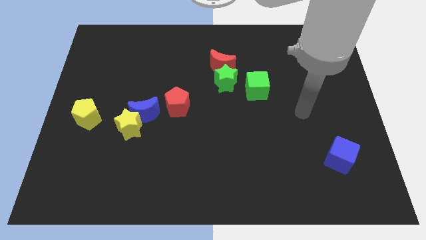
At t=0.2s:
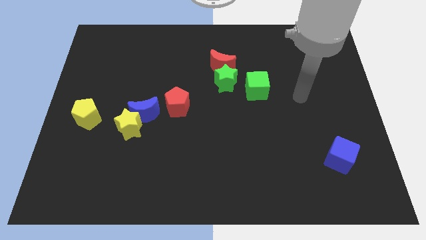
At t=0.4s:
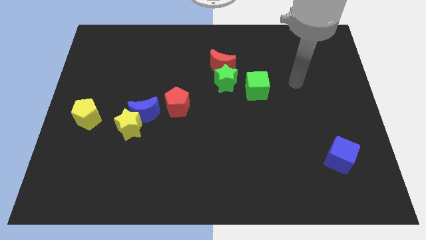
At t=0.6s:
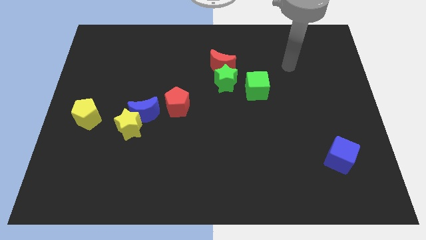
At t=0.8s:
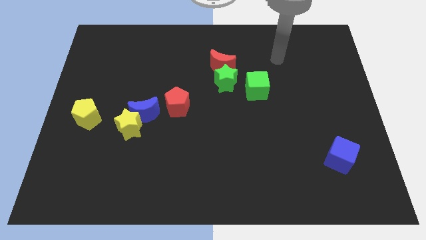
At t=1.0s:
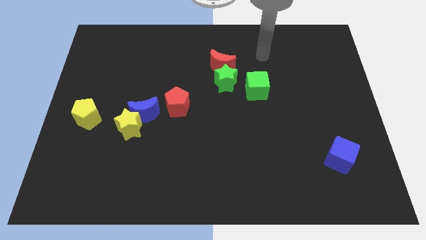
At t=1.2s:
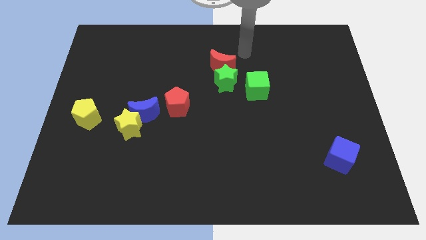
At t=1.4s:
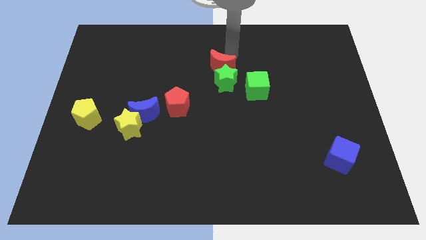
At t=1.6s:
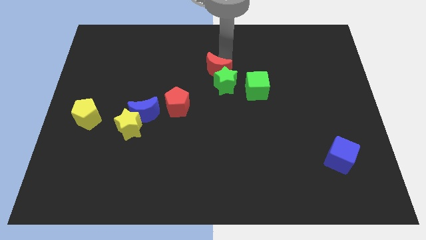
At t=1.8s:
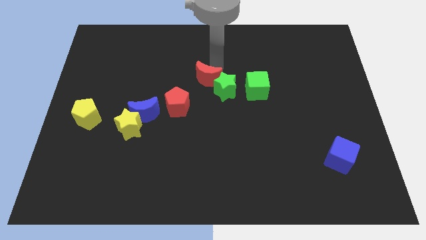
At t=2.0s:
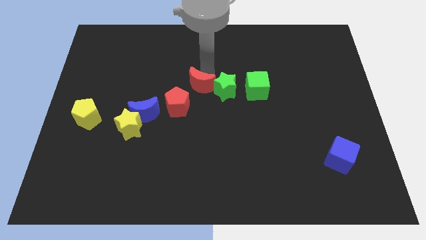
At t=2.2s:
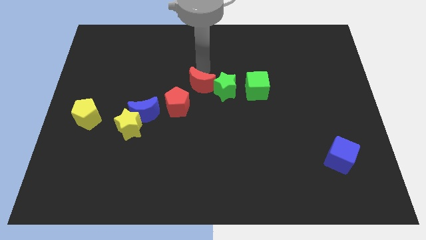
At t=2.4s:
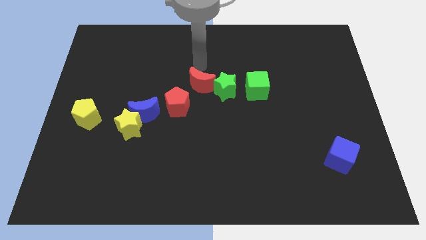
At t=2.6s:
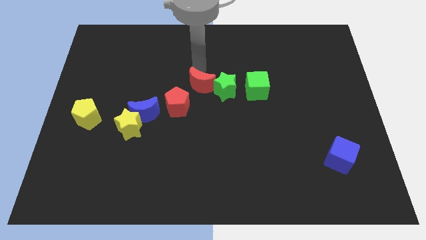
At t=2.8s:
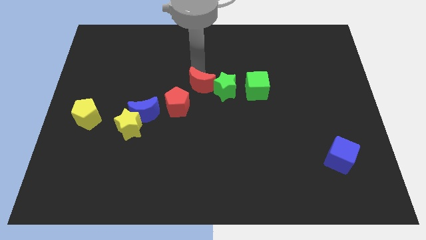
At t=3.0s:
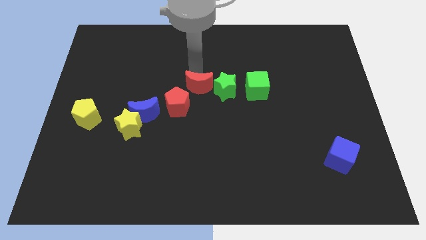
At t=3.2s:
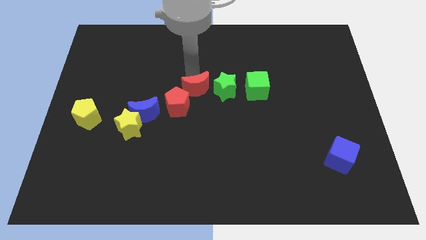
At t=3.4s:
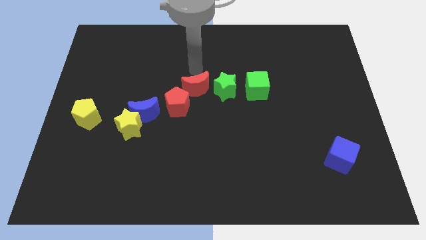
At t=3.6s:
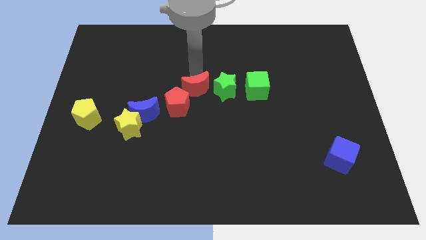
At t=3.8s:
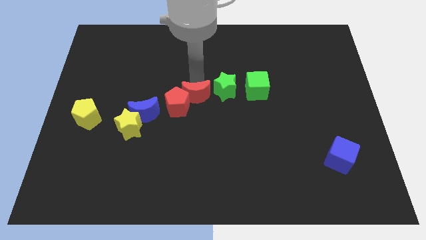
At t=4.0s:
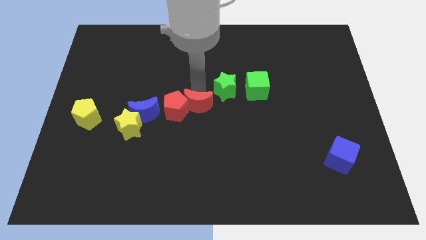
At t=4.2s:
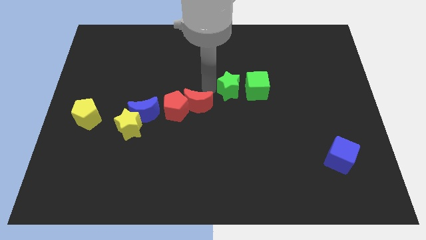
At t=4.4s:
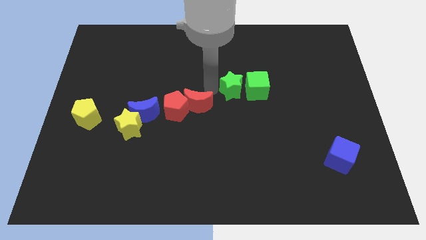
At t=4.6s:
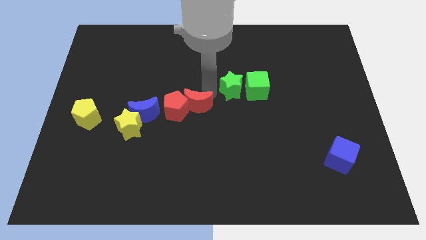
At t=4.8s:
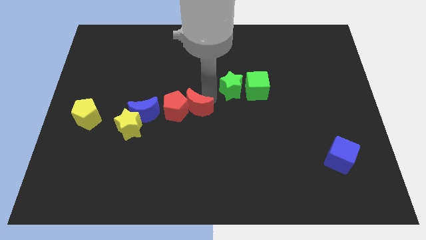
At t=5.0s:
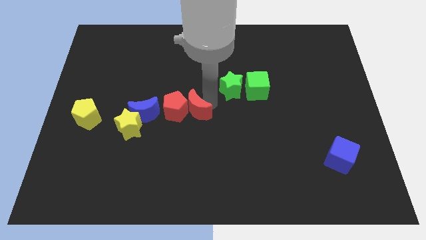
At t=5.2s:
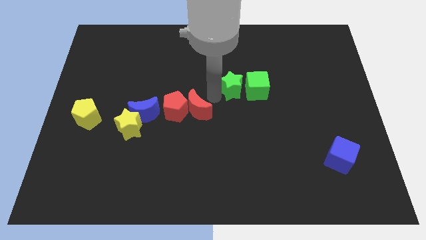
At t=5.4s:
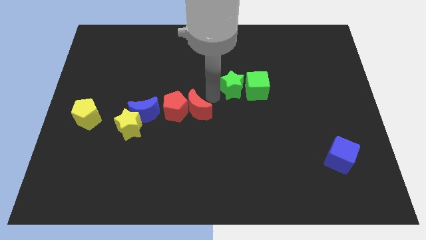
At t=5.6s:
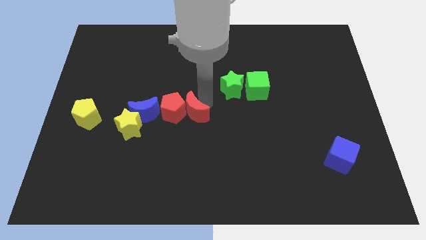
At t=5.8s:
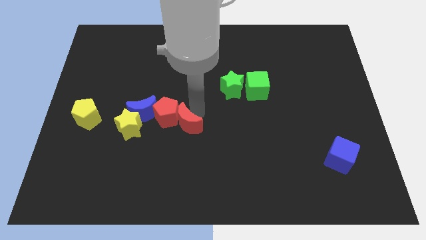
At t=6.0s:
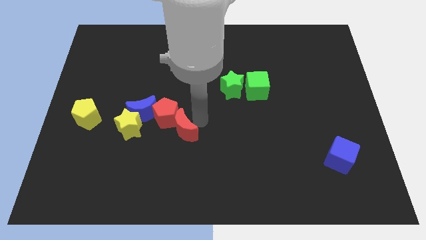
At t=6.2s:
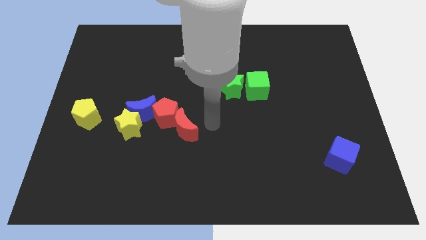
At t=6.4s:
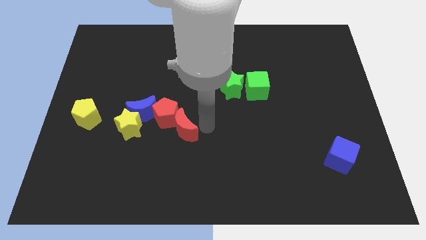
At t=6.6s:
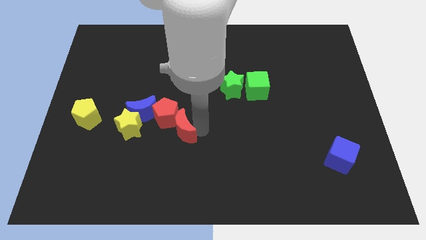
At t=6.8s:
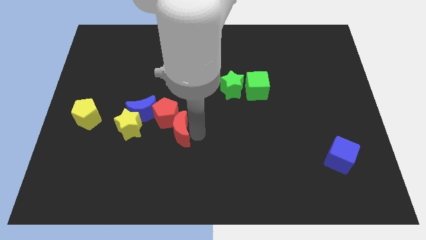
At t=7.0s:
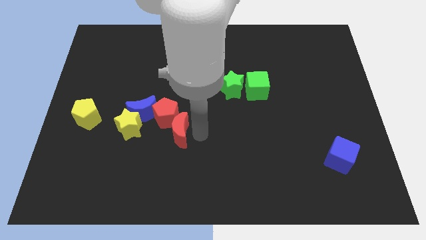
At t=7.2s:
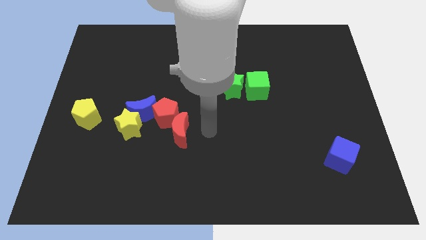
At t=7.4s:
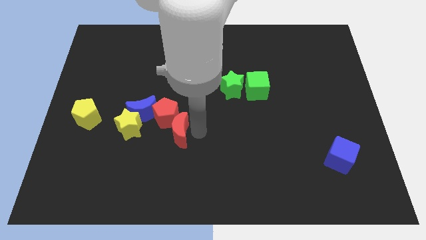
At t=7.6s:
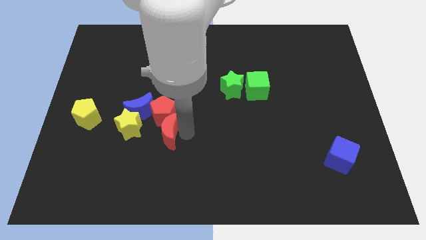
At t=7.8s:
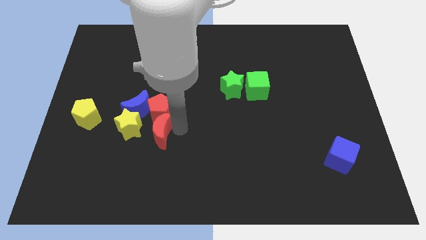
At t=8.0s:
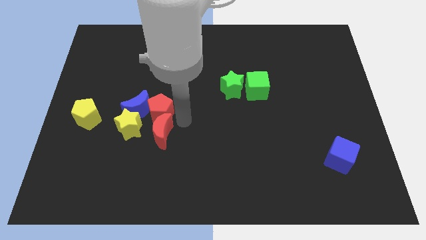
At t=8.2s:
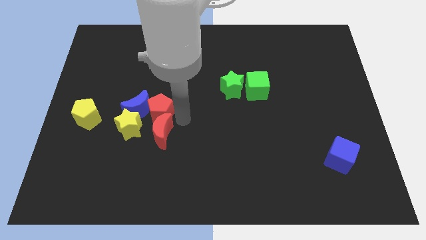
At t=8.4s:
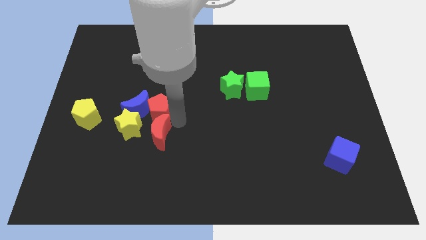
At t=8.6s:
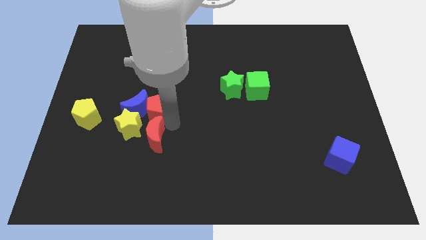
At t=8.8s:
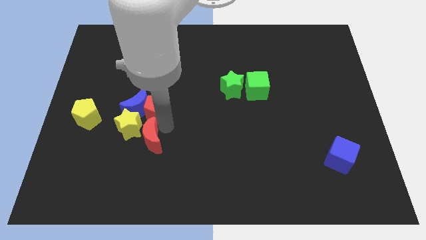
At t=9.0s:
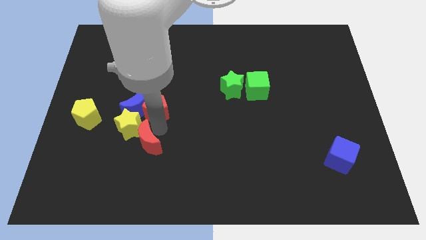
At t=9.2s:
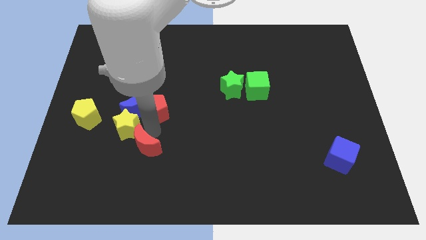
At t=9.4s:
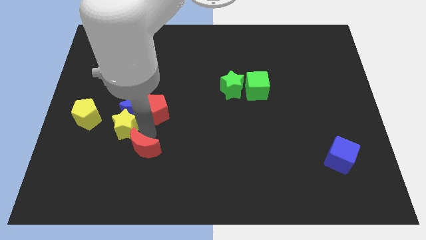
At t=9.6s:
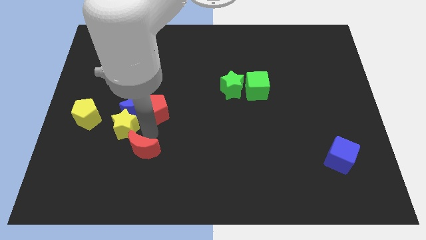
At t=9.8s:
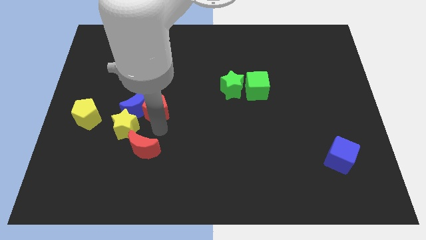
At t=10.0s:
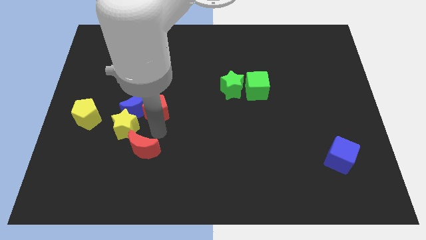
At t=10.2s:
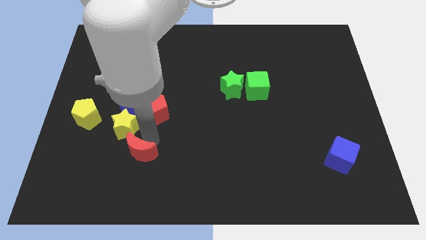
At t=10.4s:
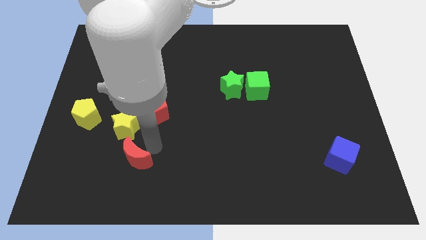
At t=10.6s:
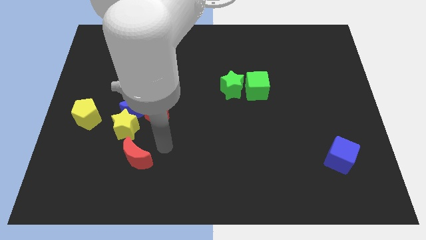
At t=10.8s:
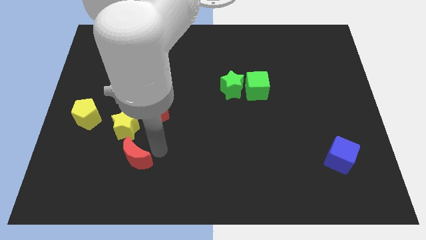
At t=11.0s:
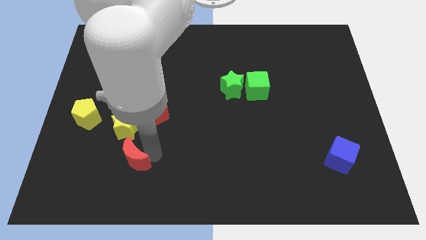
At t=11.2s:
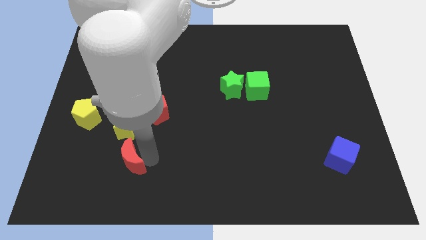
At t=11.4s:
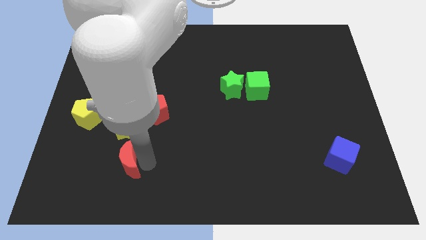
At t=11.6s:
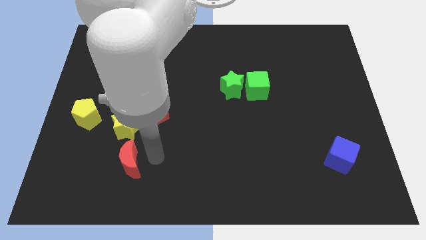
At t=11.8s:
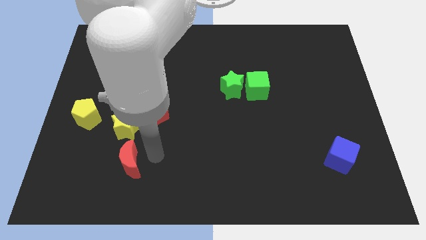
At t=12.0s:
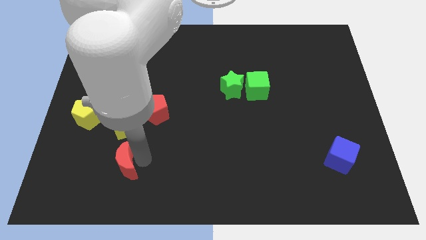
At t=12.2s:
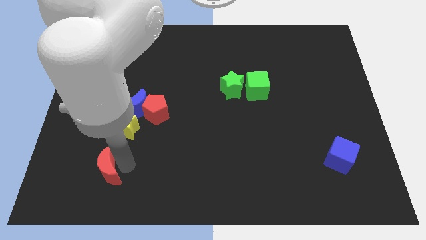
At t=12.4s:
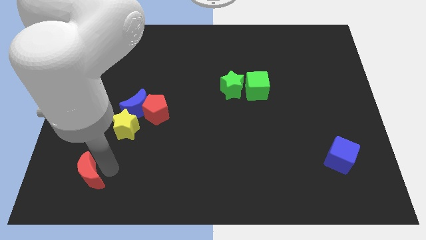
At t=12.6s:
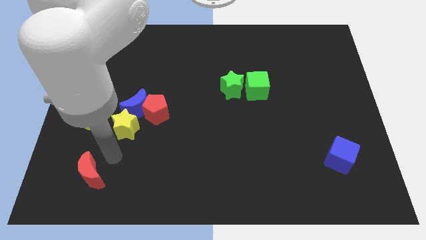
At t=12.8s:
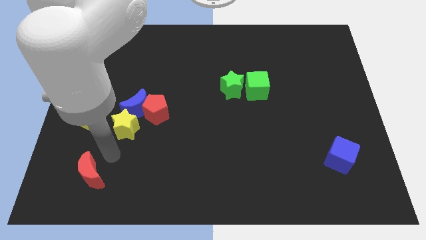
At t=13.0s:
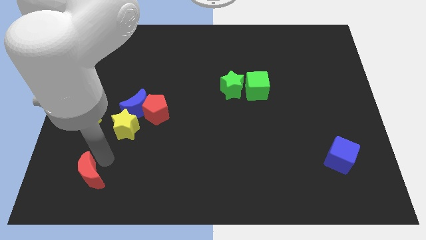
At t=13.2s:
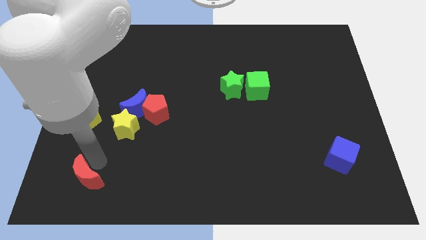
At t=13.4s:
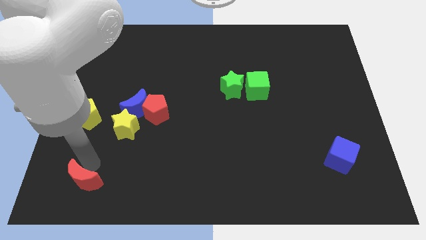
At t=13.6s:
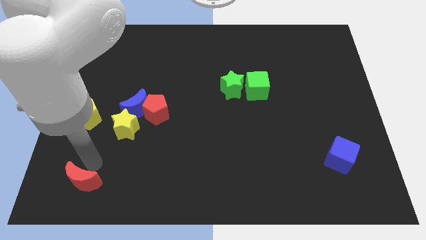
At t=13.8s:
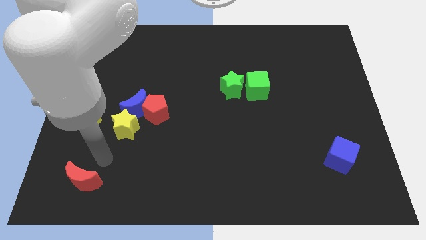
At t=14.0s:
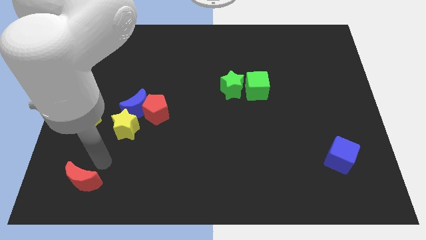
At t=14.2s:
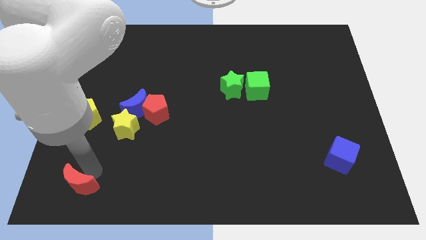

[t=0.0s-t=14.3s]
put the red moon to the bottom left of the board
